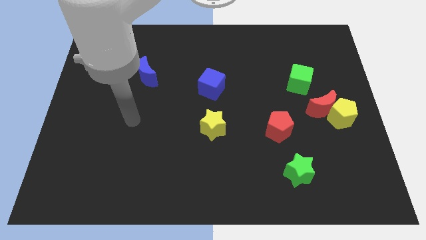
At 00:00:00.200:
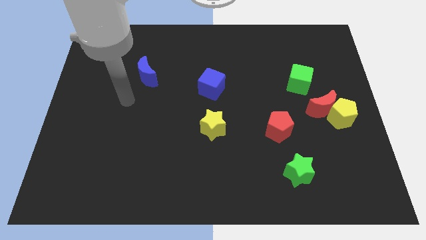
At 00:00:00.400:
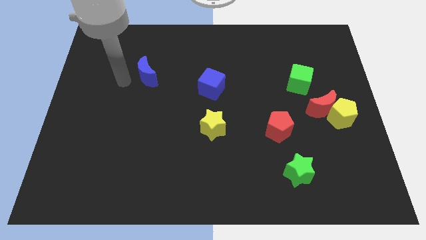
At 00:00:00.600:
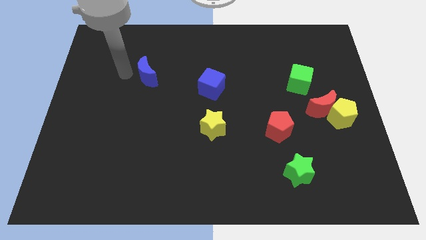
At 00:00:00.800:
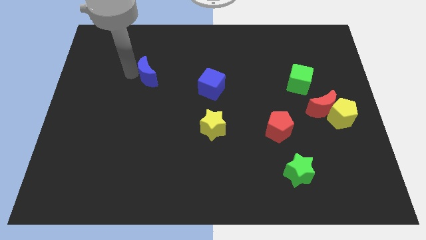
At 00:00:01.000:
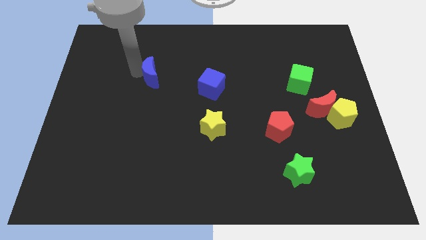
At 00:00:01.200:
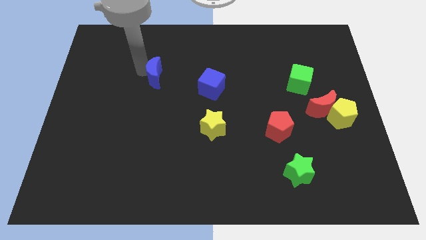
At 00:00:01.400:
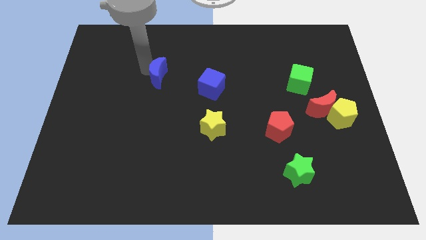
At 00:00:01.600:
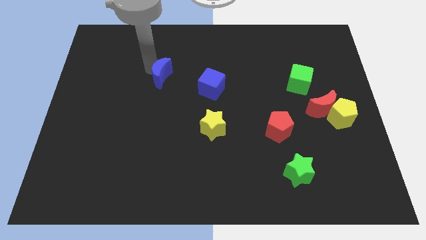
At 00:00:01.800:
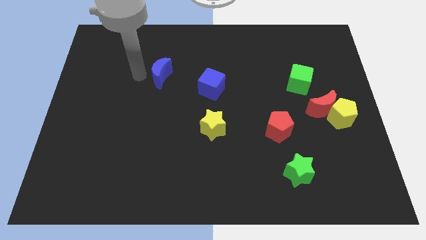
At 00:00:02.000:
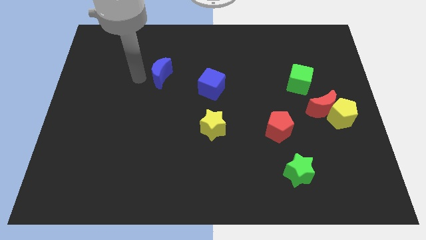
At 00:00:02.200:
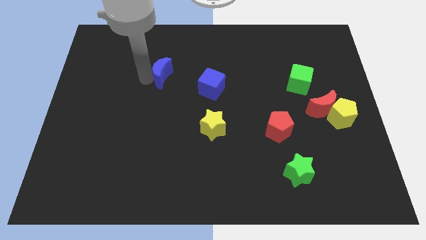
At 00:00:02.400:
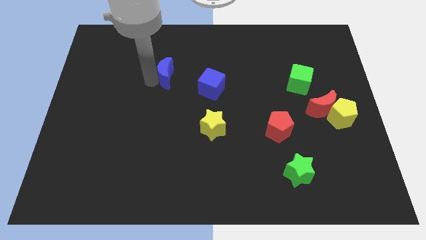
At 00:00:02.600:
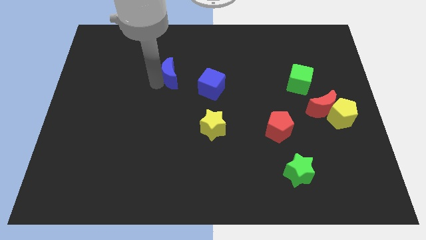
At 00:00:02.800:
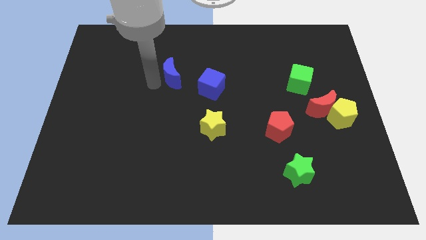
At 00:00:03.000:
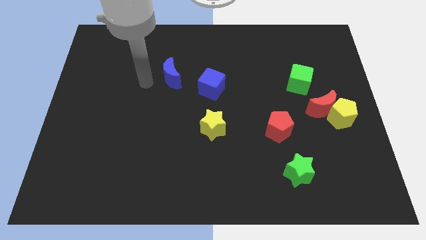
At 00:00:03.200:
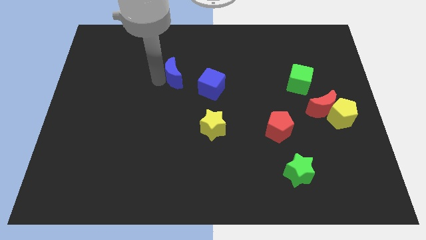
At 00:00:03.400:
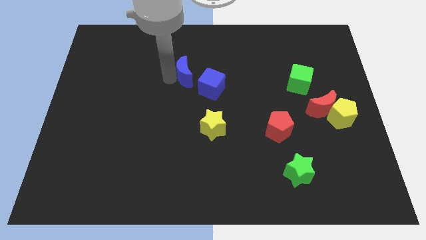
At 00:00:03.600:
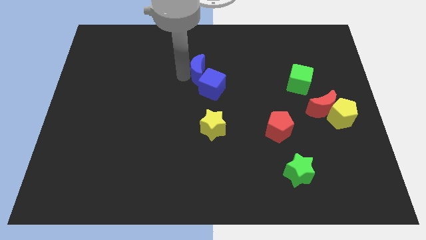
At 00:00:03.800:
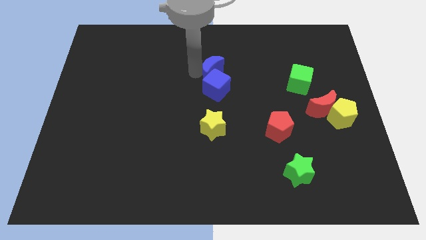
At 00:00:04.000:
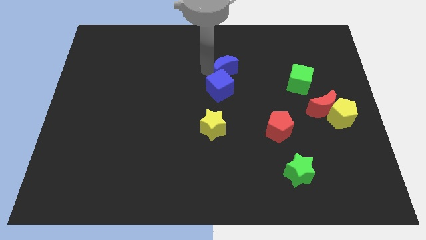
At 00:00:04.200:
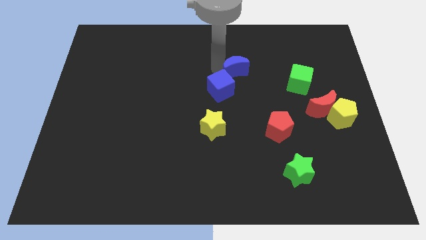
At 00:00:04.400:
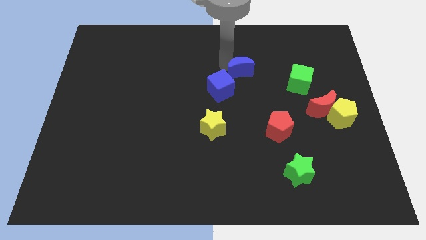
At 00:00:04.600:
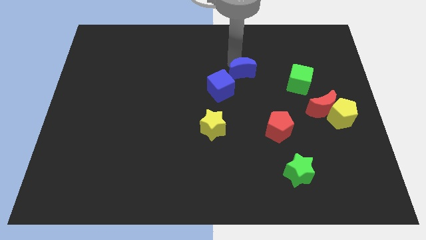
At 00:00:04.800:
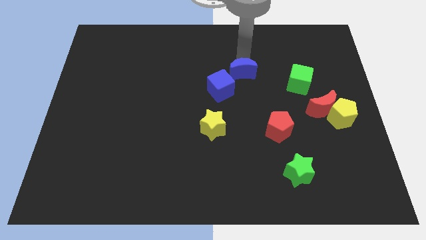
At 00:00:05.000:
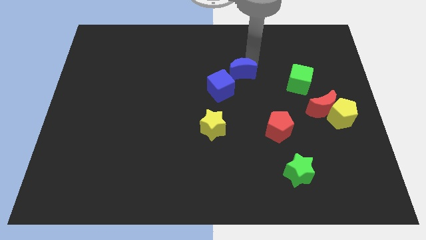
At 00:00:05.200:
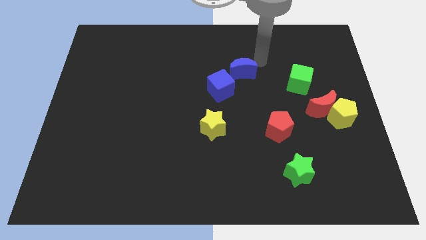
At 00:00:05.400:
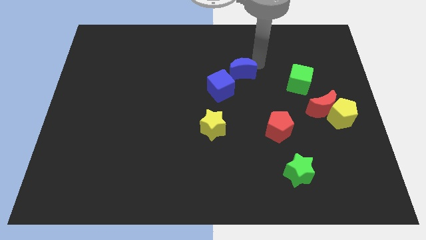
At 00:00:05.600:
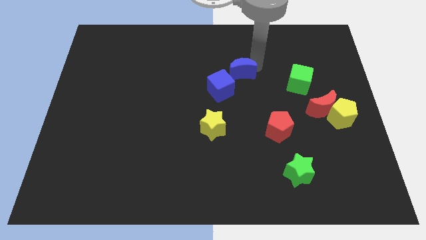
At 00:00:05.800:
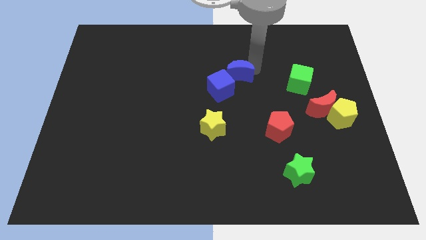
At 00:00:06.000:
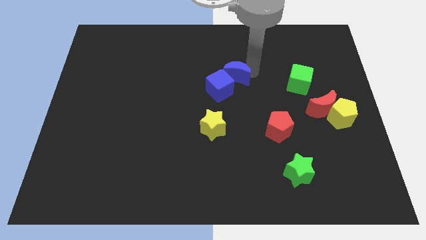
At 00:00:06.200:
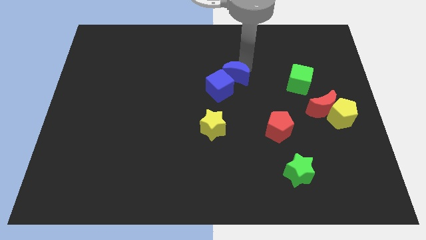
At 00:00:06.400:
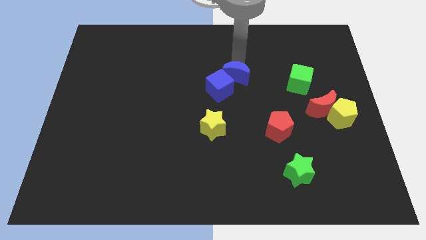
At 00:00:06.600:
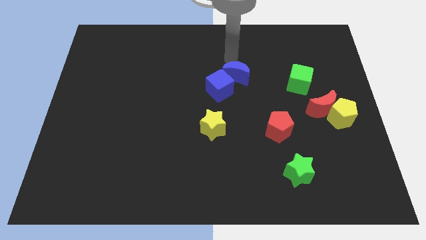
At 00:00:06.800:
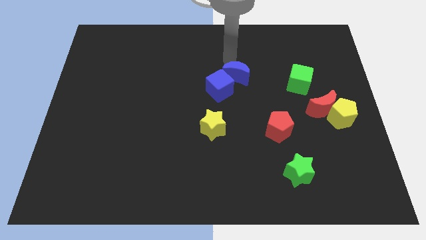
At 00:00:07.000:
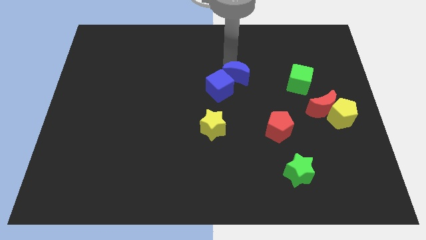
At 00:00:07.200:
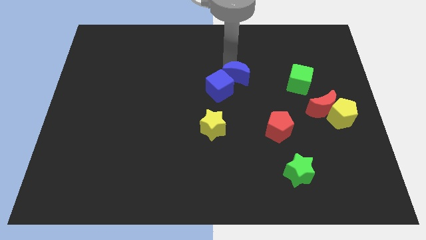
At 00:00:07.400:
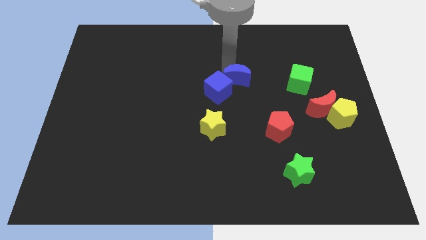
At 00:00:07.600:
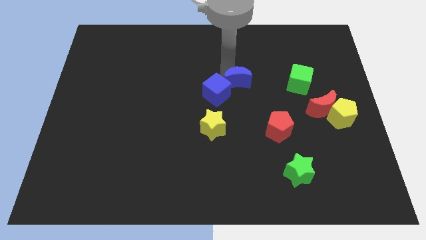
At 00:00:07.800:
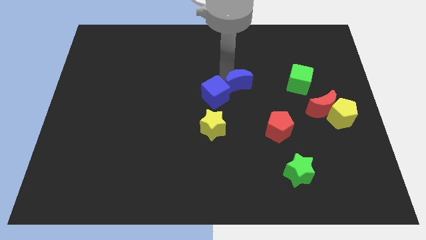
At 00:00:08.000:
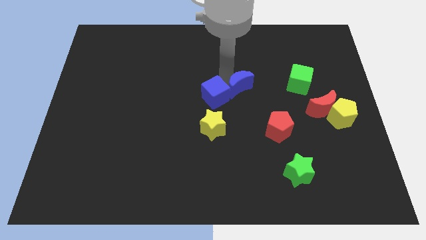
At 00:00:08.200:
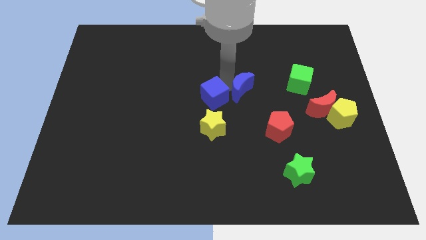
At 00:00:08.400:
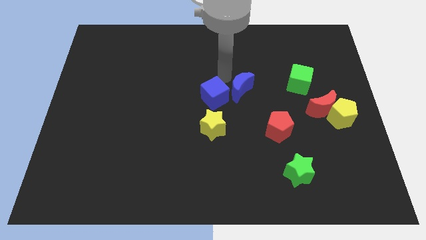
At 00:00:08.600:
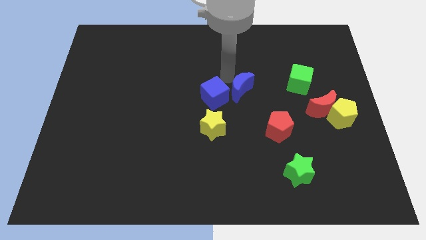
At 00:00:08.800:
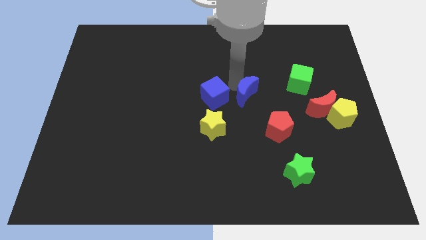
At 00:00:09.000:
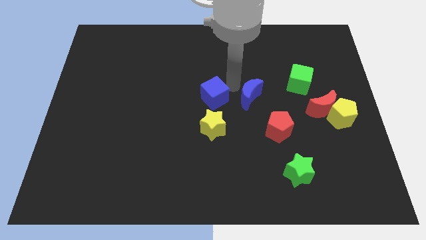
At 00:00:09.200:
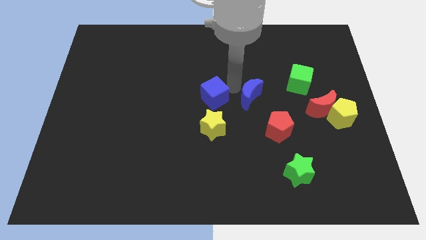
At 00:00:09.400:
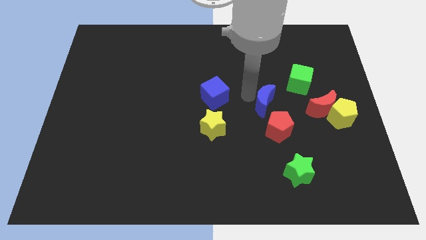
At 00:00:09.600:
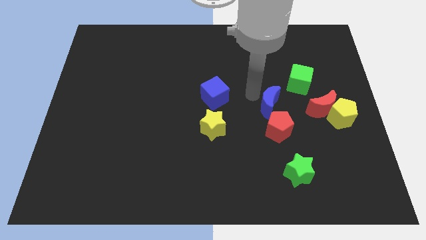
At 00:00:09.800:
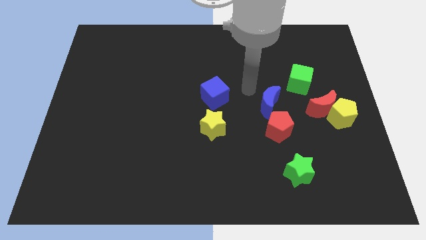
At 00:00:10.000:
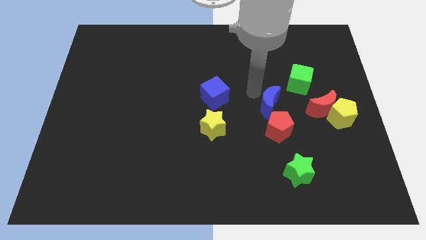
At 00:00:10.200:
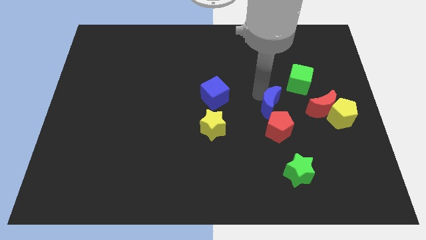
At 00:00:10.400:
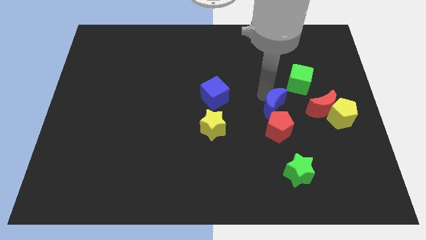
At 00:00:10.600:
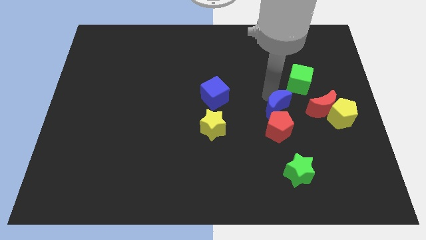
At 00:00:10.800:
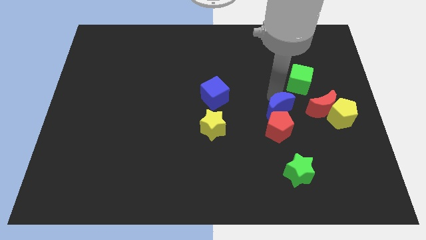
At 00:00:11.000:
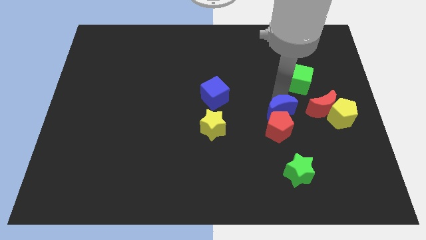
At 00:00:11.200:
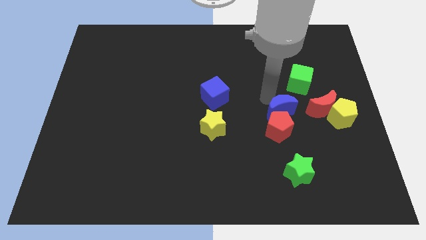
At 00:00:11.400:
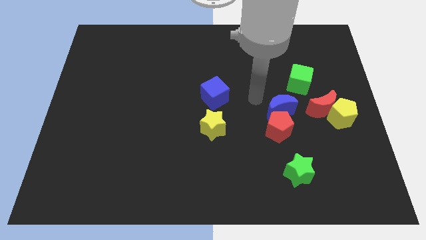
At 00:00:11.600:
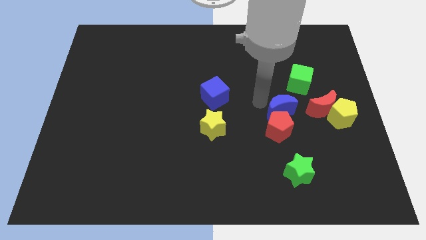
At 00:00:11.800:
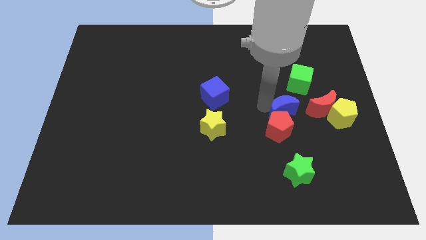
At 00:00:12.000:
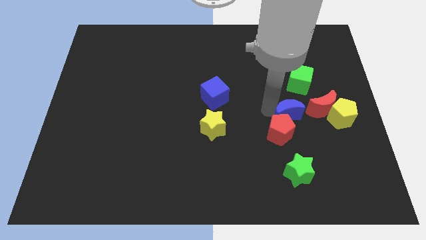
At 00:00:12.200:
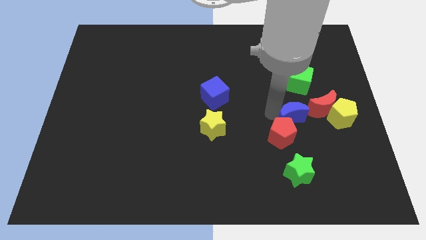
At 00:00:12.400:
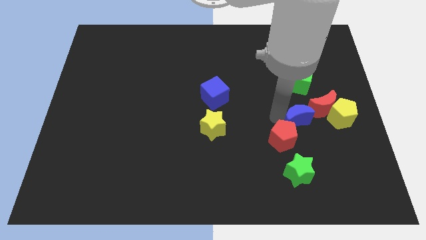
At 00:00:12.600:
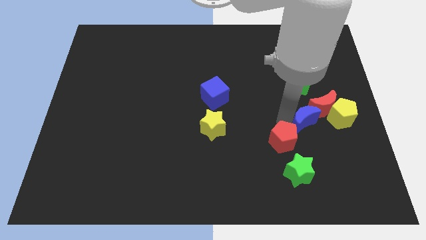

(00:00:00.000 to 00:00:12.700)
put the blue moon to the right of the red pentagon
